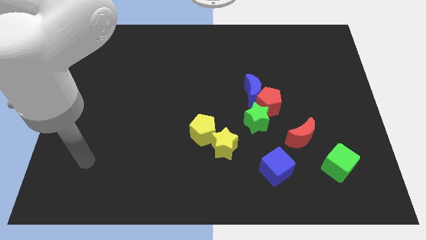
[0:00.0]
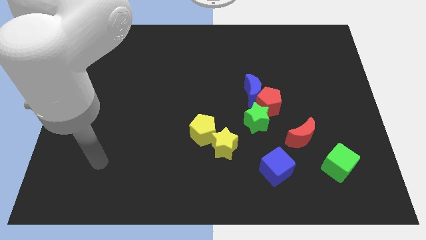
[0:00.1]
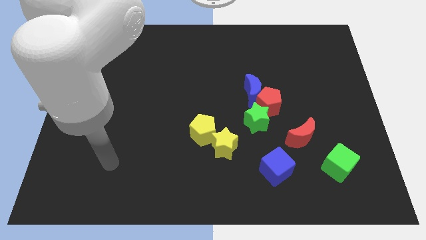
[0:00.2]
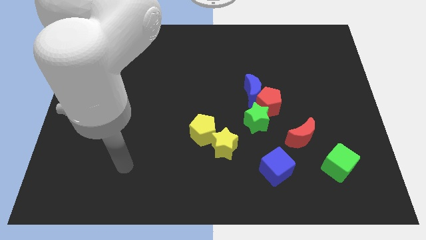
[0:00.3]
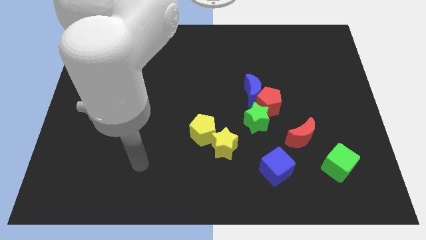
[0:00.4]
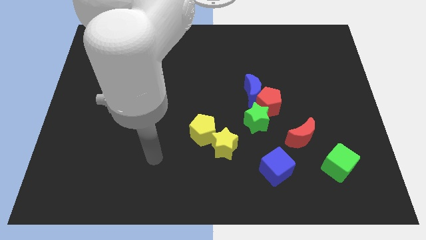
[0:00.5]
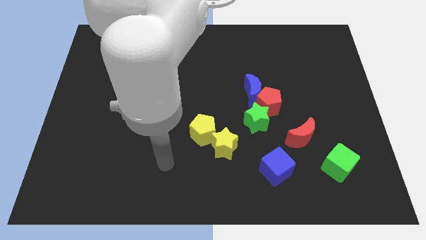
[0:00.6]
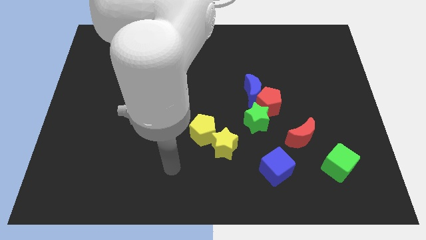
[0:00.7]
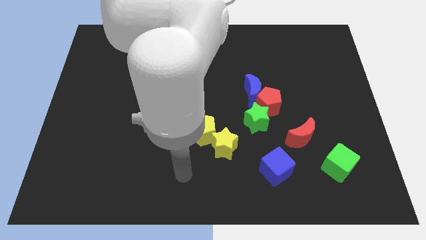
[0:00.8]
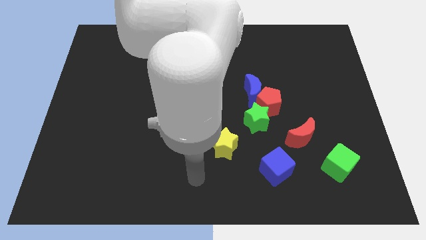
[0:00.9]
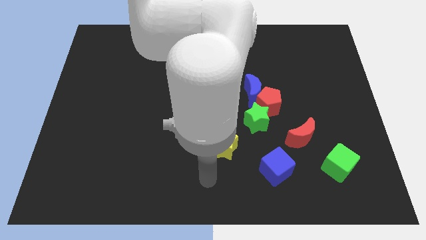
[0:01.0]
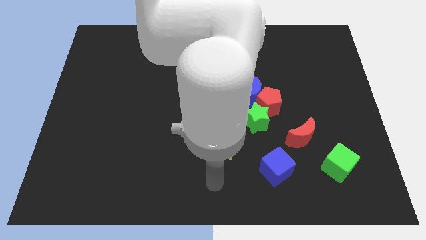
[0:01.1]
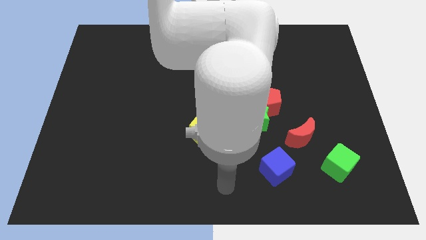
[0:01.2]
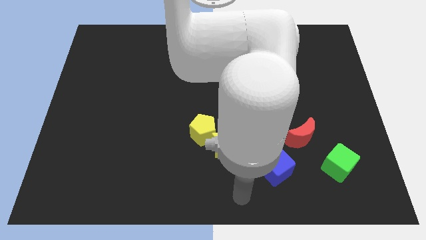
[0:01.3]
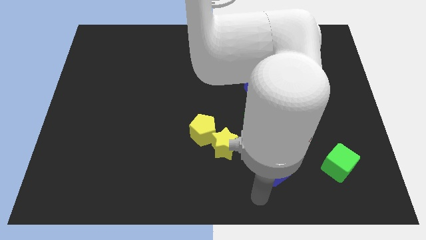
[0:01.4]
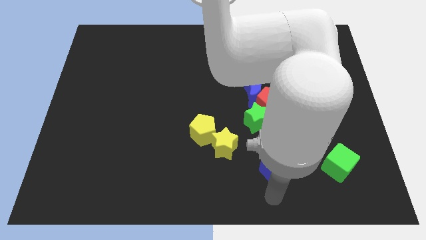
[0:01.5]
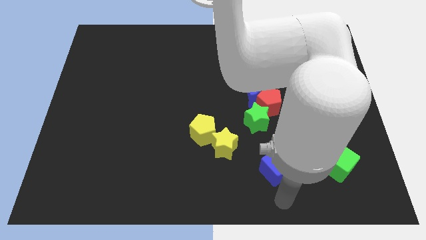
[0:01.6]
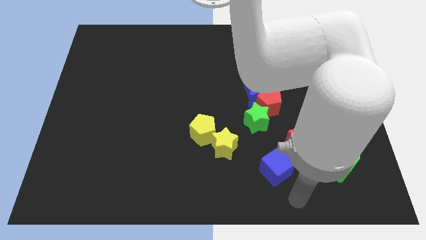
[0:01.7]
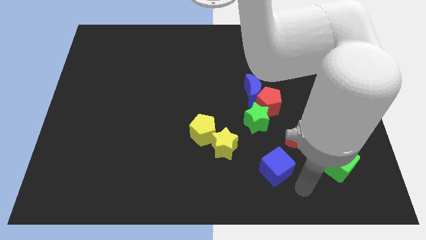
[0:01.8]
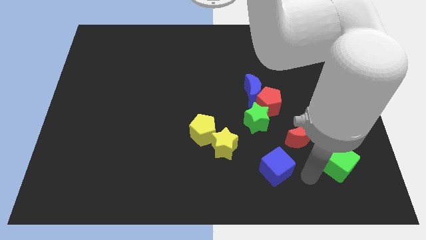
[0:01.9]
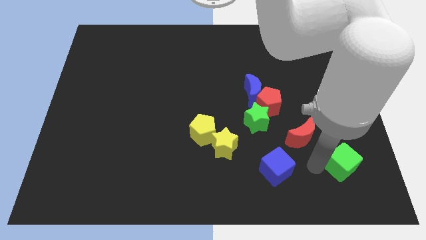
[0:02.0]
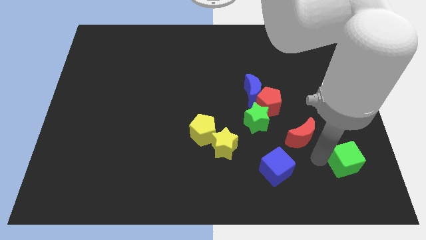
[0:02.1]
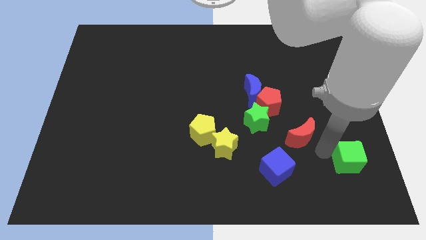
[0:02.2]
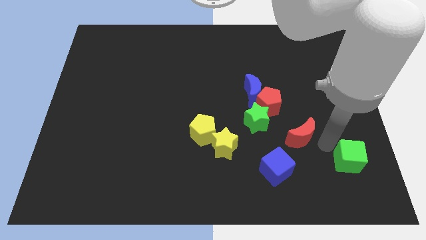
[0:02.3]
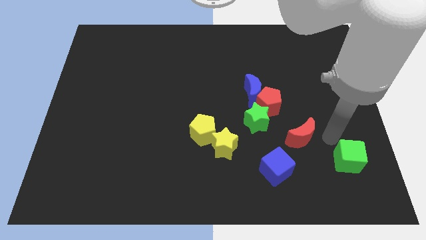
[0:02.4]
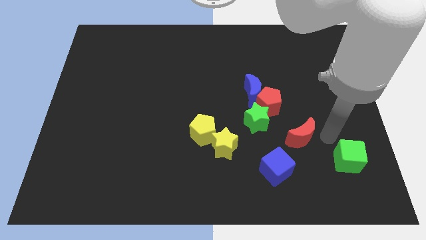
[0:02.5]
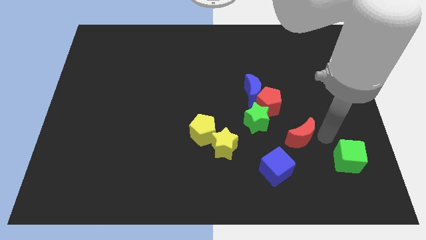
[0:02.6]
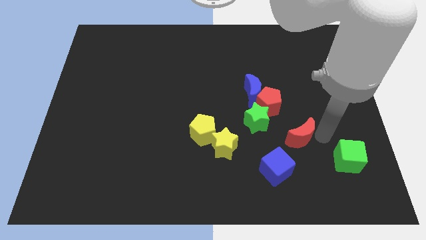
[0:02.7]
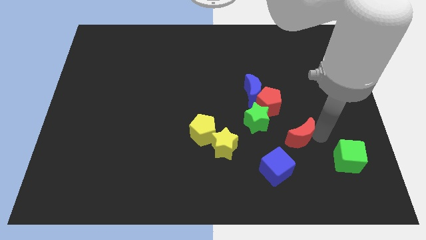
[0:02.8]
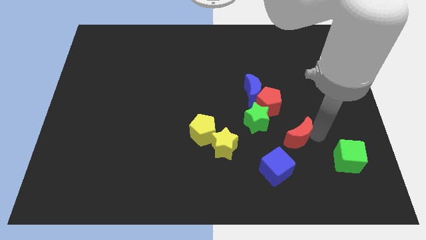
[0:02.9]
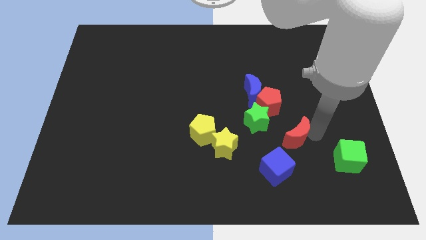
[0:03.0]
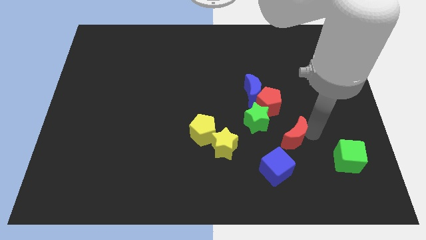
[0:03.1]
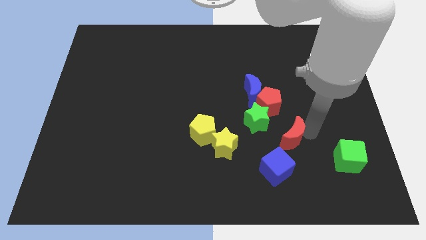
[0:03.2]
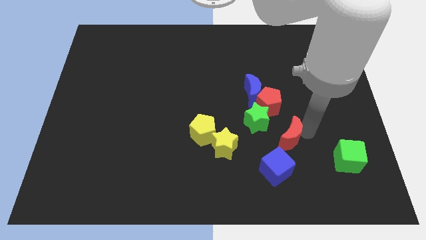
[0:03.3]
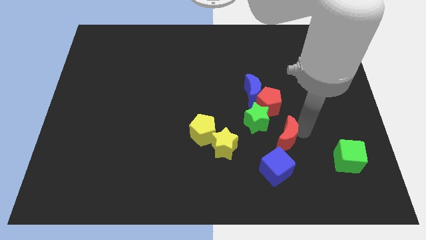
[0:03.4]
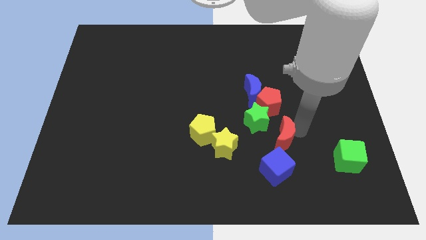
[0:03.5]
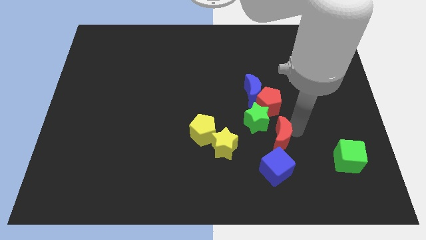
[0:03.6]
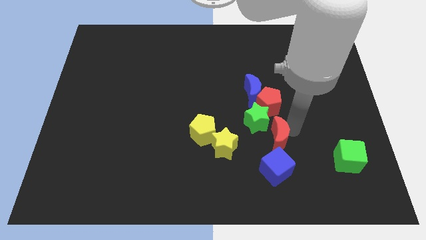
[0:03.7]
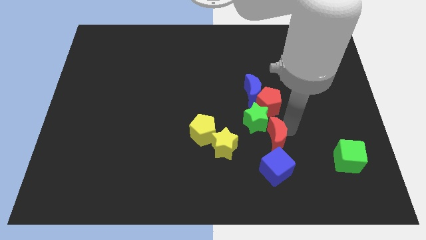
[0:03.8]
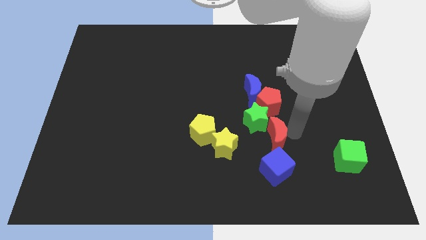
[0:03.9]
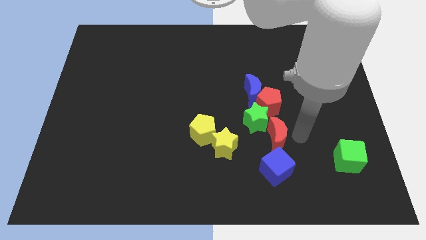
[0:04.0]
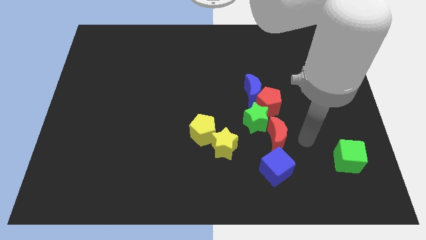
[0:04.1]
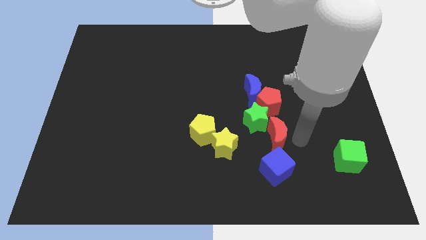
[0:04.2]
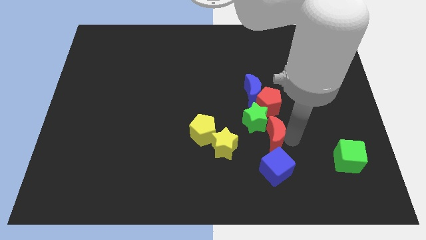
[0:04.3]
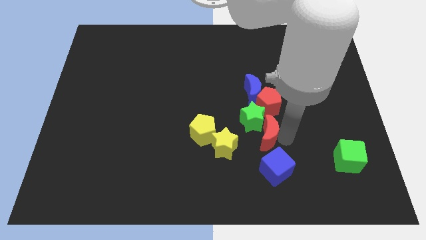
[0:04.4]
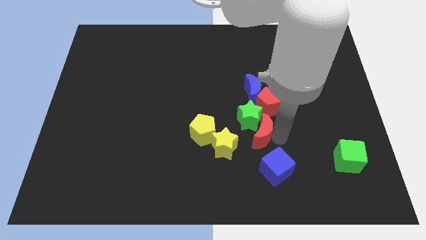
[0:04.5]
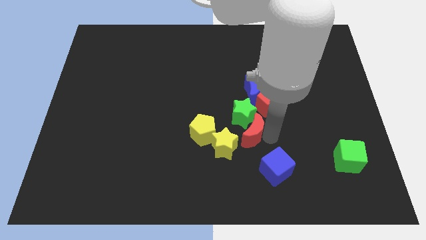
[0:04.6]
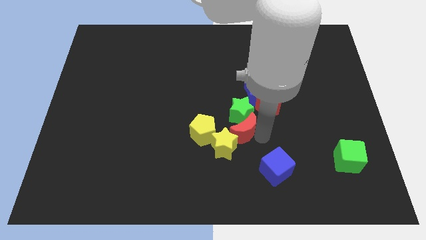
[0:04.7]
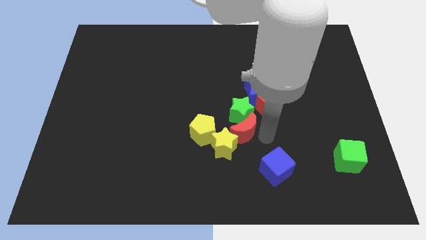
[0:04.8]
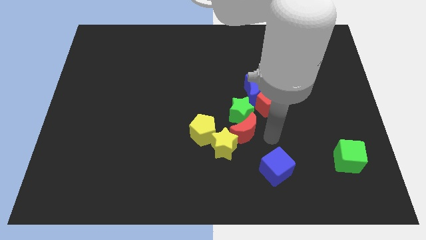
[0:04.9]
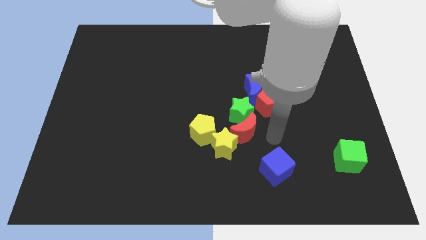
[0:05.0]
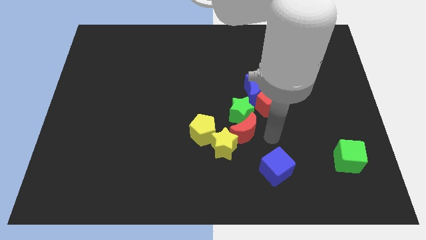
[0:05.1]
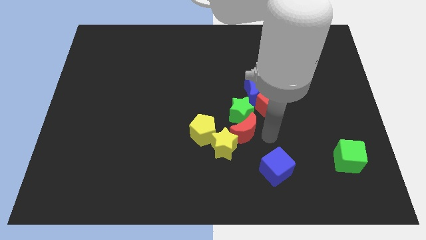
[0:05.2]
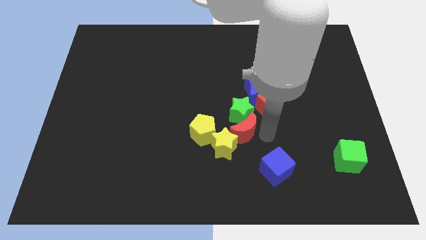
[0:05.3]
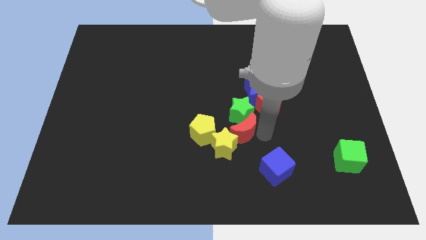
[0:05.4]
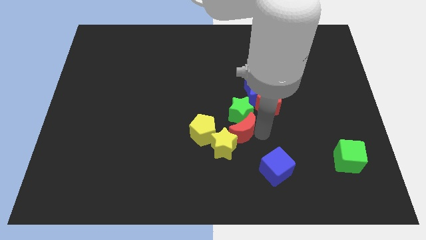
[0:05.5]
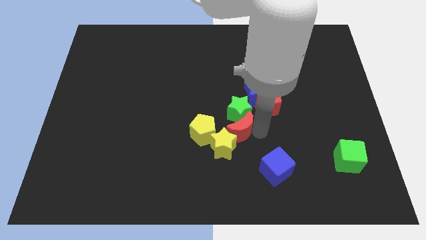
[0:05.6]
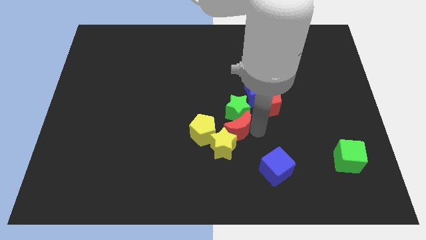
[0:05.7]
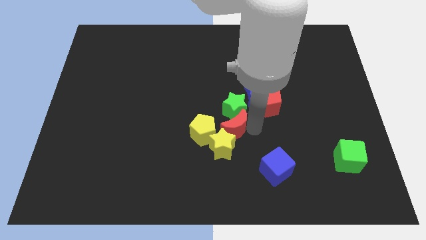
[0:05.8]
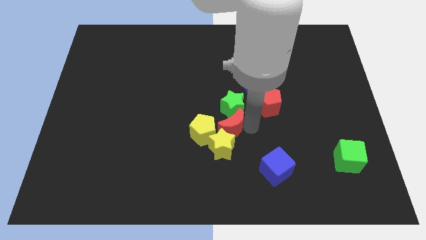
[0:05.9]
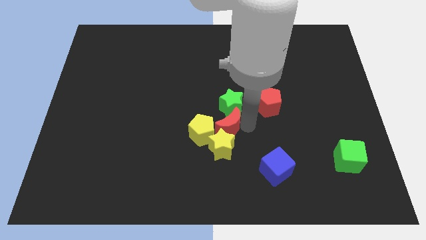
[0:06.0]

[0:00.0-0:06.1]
put the red moon towards the yellow pentagon

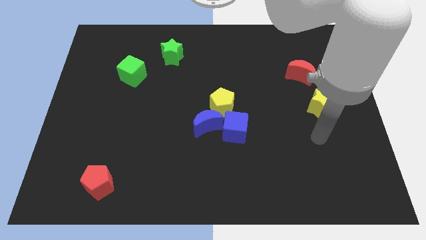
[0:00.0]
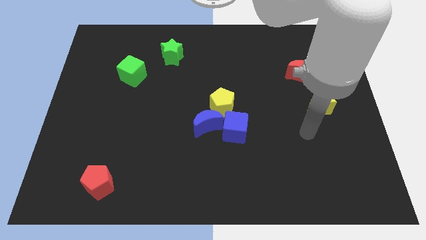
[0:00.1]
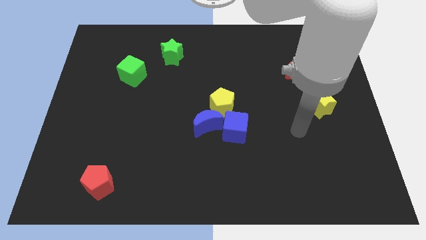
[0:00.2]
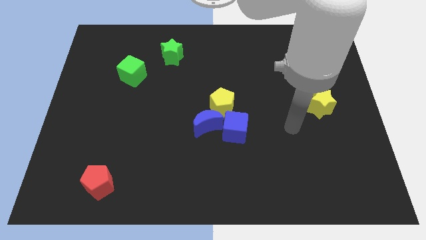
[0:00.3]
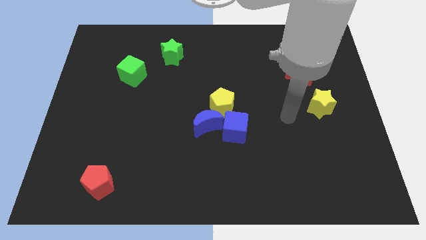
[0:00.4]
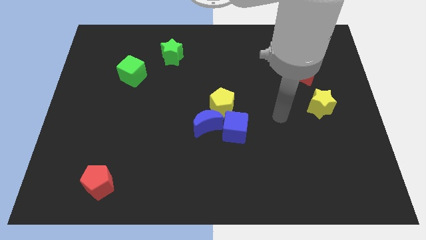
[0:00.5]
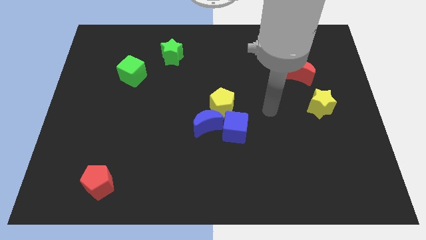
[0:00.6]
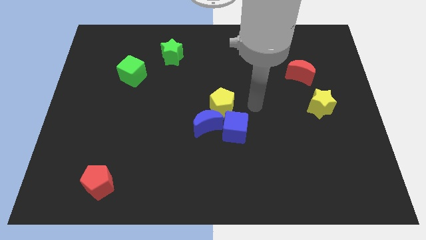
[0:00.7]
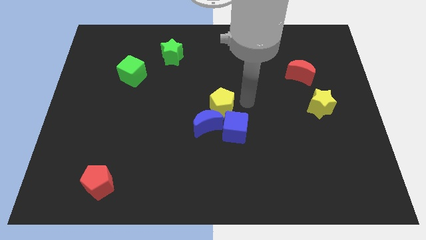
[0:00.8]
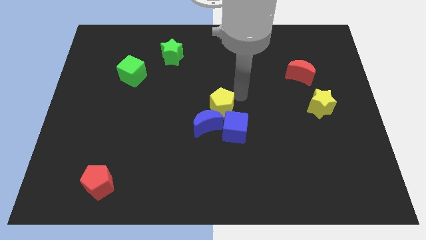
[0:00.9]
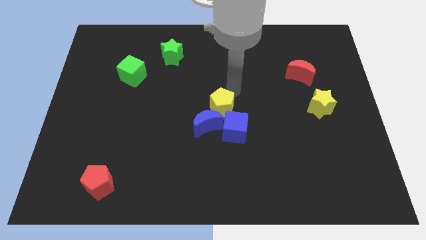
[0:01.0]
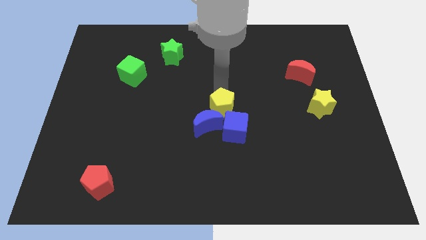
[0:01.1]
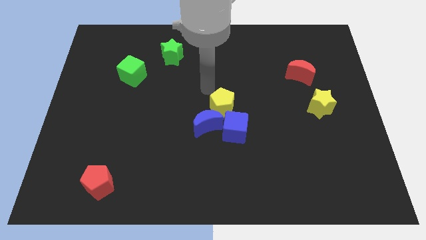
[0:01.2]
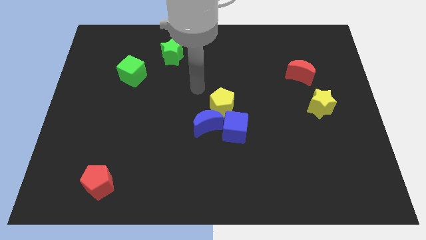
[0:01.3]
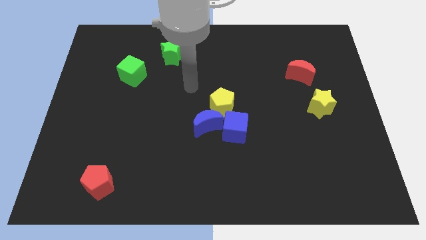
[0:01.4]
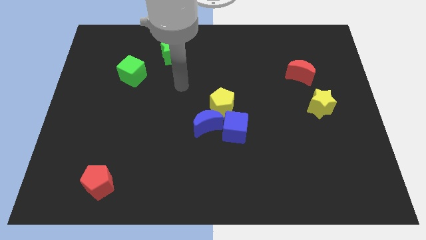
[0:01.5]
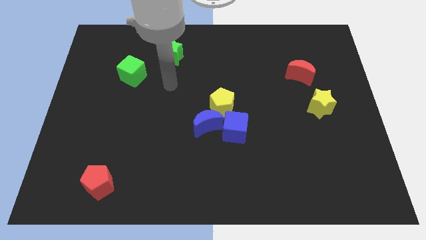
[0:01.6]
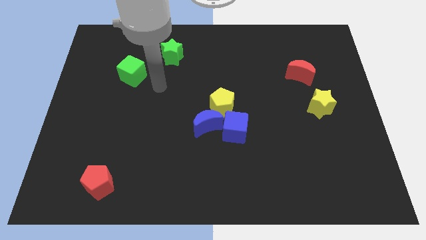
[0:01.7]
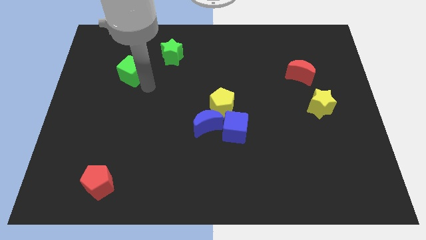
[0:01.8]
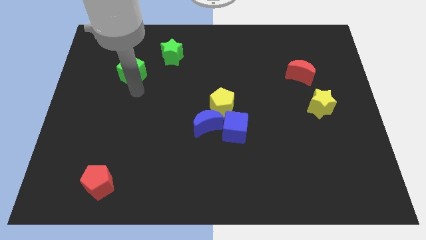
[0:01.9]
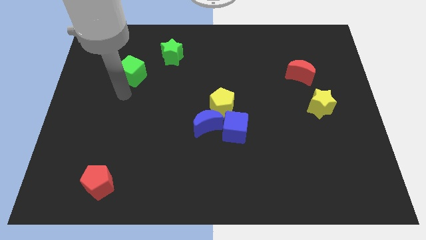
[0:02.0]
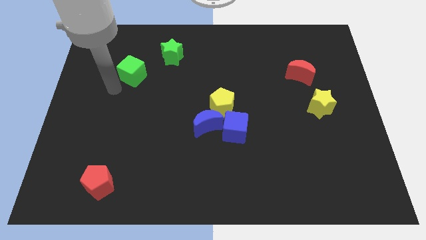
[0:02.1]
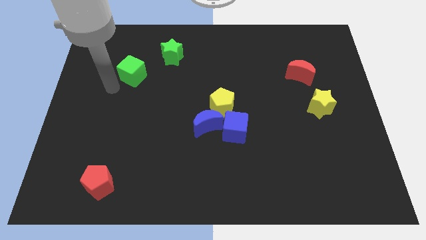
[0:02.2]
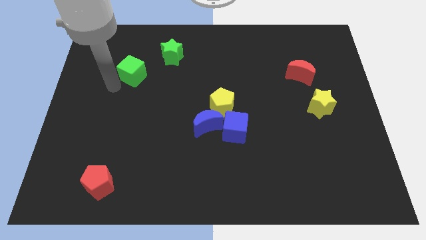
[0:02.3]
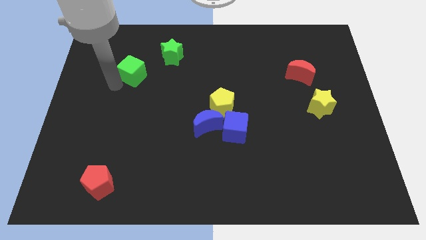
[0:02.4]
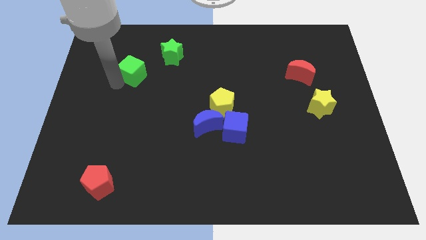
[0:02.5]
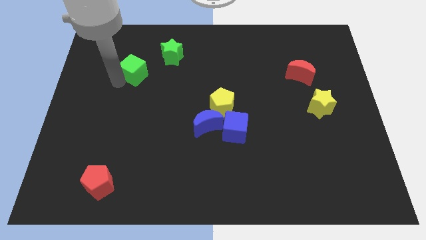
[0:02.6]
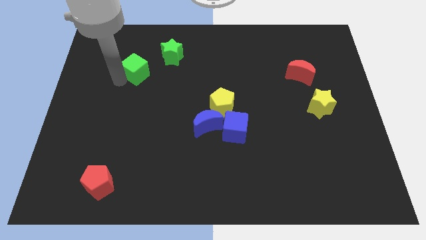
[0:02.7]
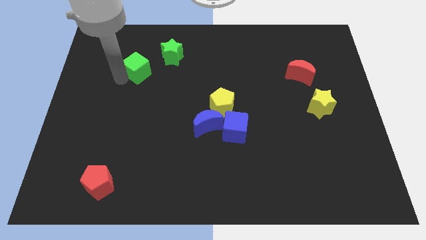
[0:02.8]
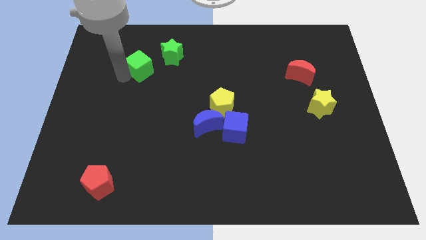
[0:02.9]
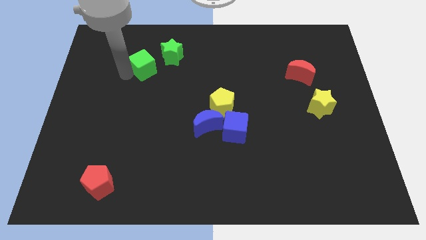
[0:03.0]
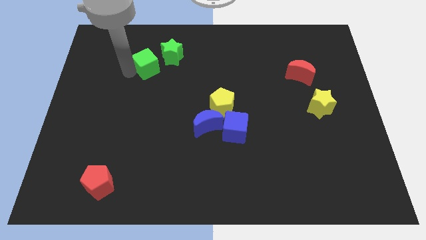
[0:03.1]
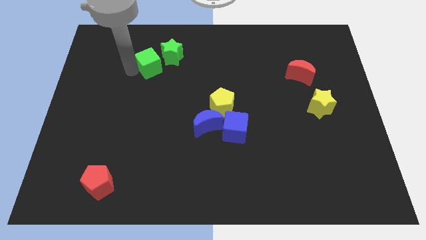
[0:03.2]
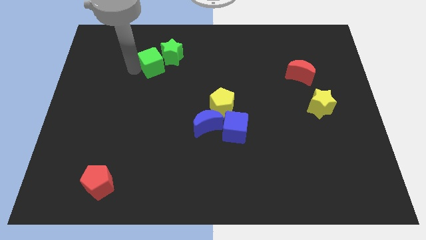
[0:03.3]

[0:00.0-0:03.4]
move the green cube to the green star
